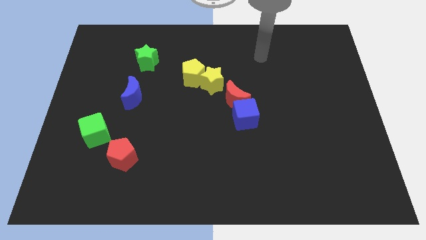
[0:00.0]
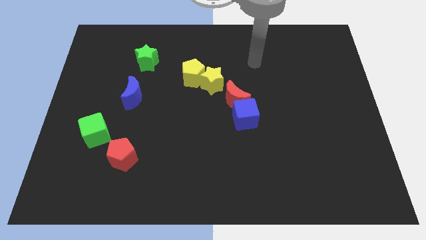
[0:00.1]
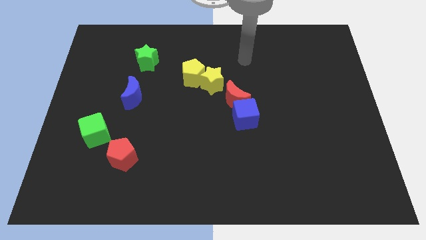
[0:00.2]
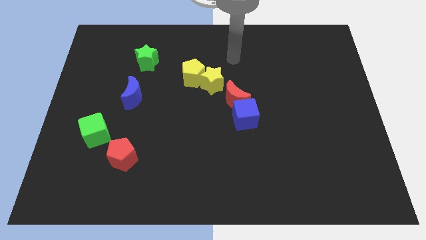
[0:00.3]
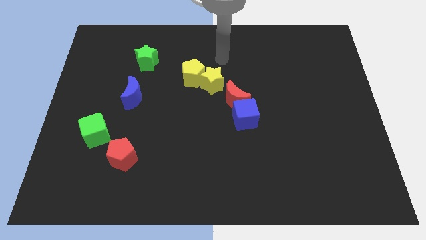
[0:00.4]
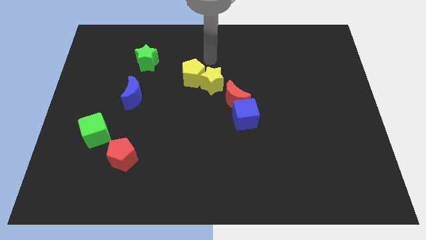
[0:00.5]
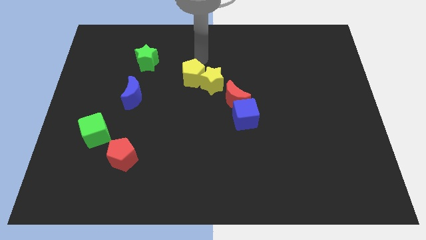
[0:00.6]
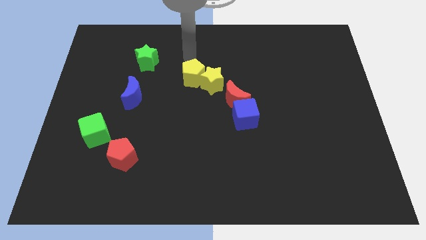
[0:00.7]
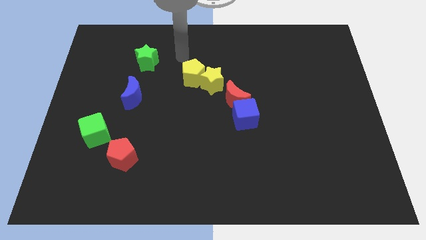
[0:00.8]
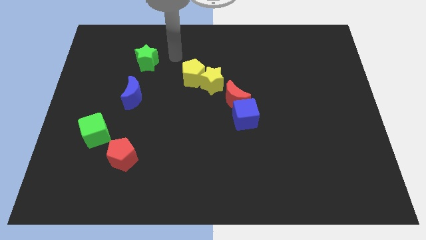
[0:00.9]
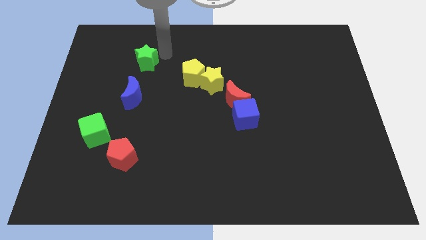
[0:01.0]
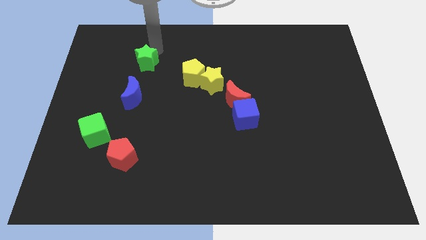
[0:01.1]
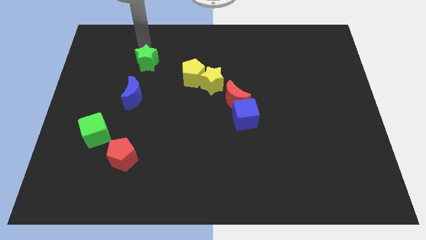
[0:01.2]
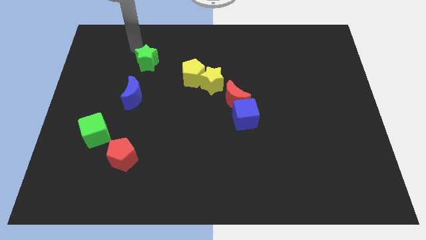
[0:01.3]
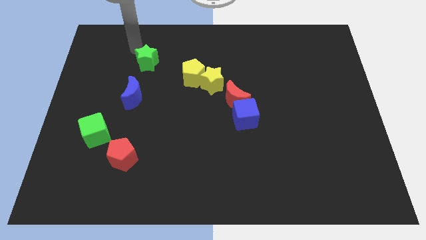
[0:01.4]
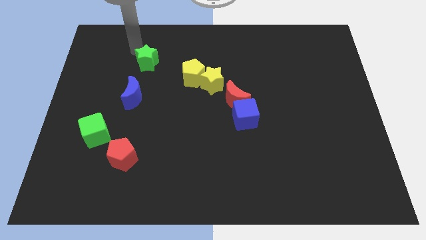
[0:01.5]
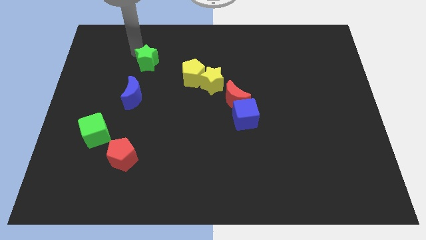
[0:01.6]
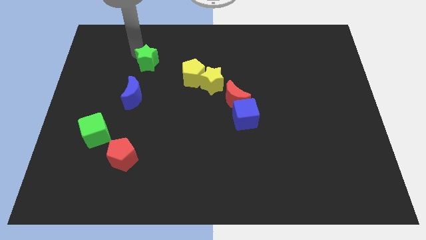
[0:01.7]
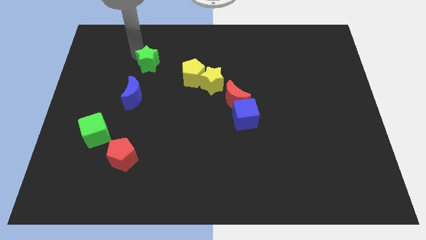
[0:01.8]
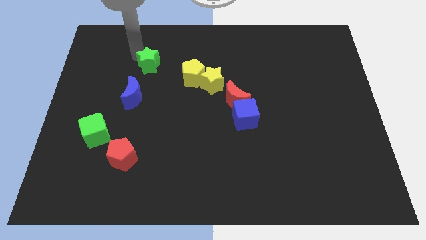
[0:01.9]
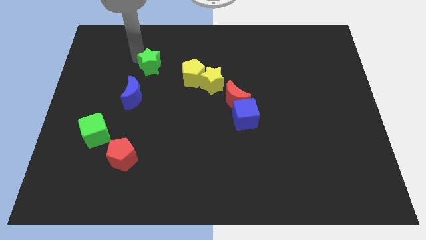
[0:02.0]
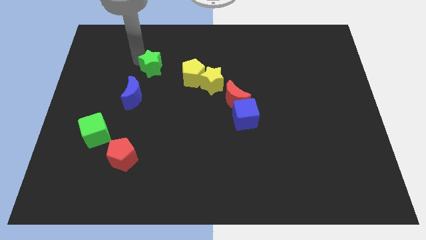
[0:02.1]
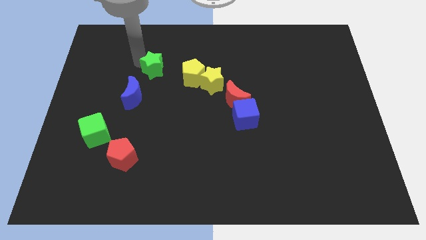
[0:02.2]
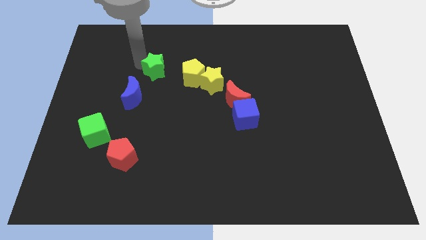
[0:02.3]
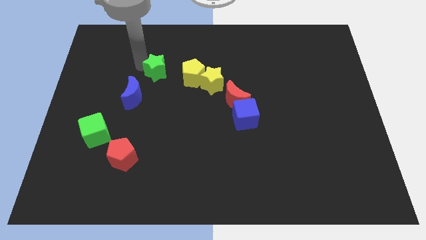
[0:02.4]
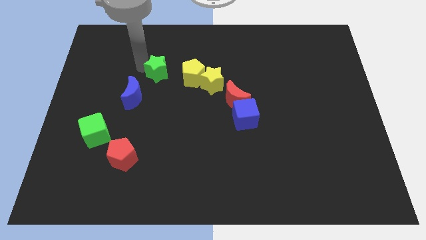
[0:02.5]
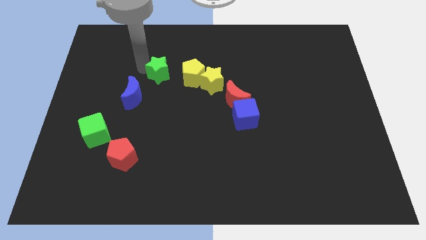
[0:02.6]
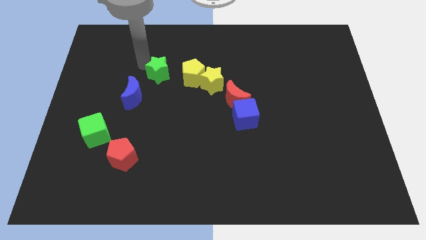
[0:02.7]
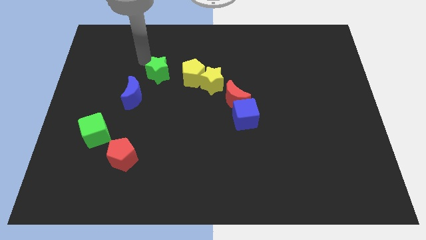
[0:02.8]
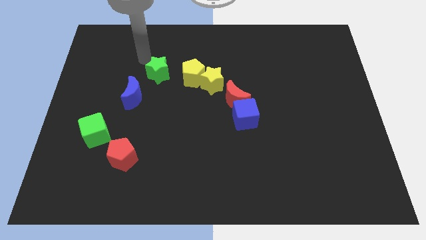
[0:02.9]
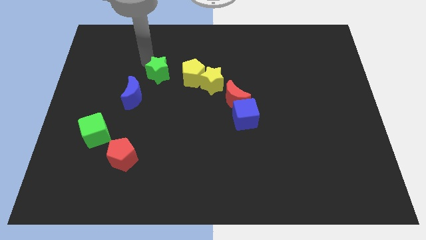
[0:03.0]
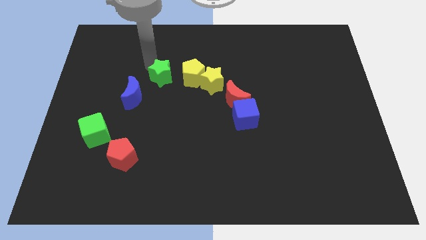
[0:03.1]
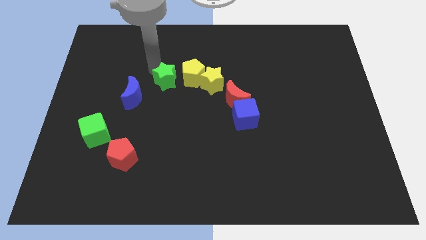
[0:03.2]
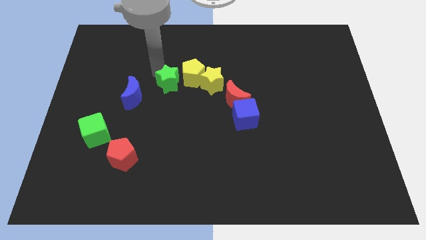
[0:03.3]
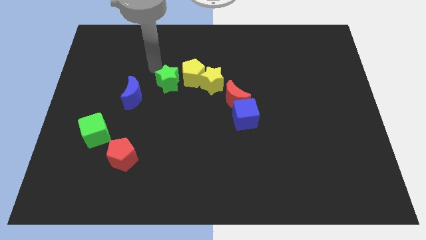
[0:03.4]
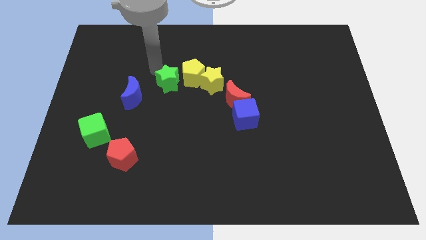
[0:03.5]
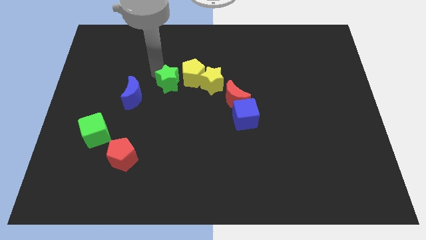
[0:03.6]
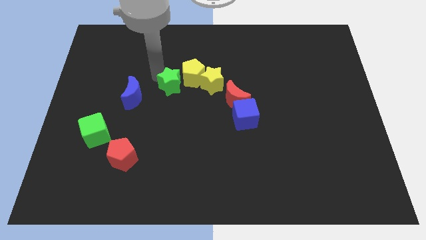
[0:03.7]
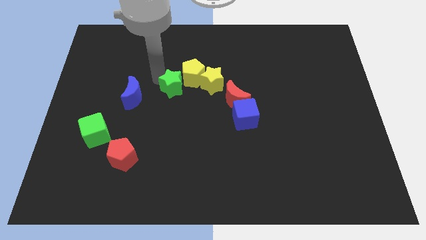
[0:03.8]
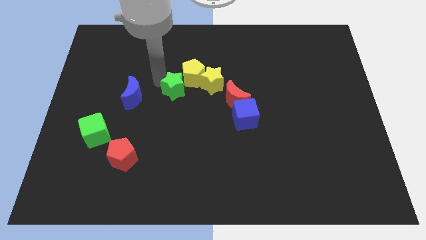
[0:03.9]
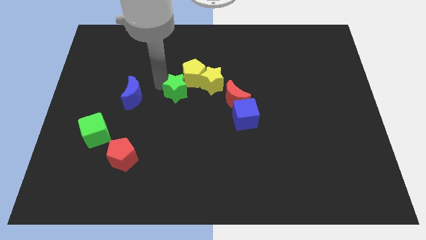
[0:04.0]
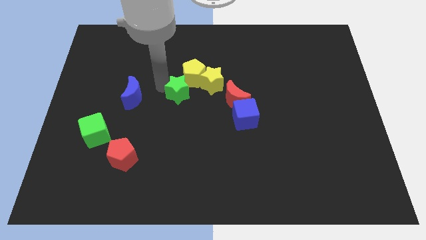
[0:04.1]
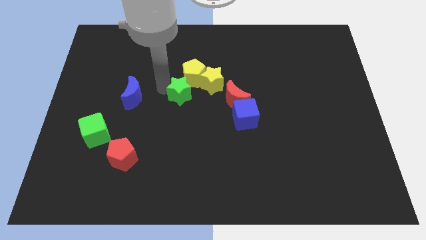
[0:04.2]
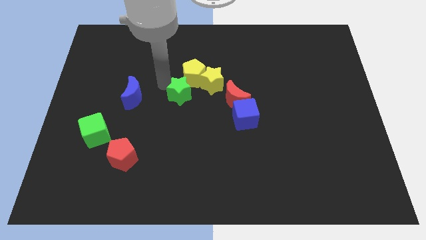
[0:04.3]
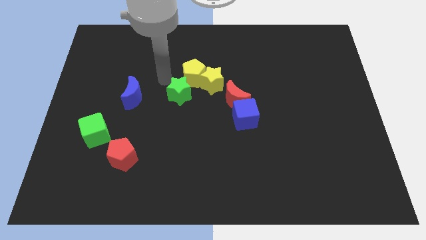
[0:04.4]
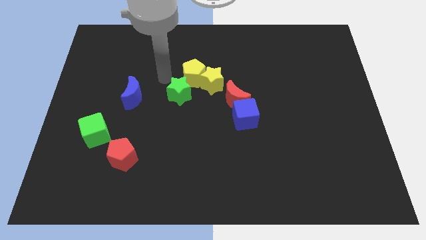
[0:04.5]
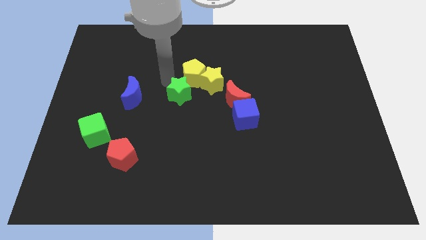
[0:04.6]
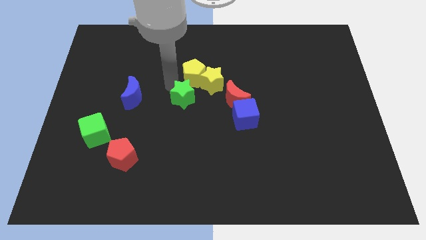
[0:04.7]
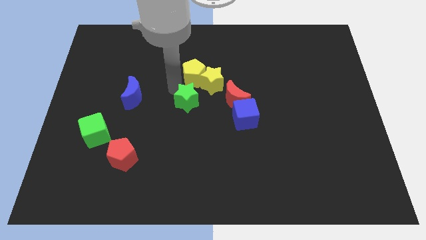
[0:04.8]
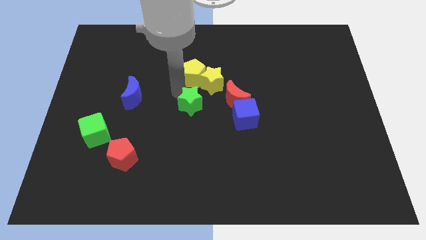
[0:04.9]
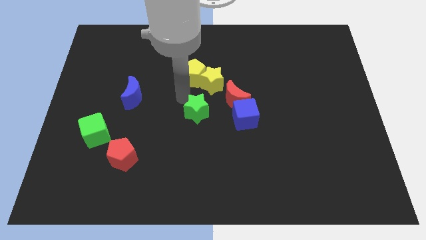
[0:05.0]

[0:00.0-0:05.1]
slide the green star downwards and to the right

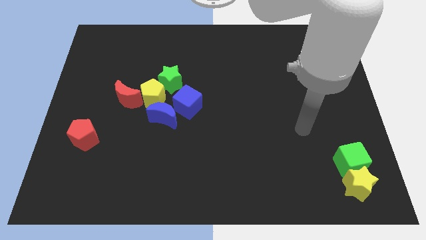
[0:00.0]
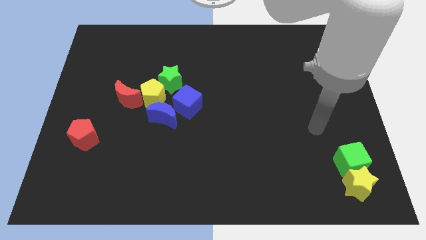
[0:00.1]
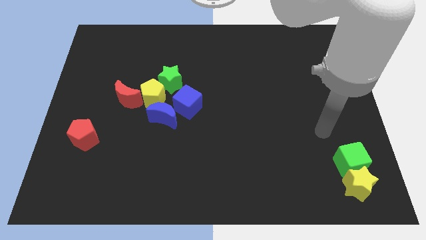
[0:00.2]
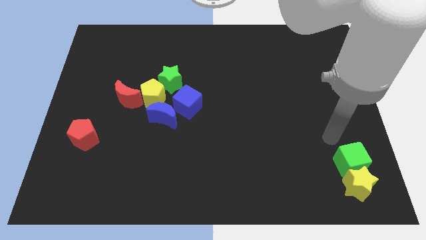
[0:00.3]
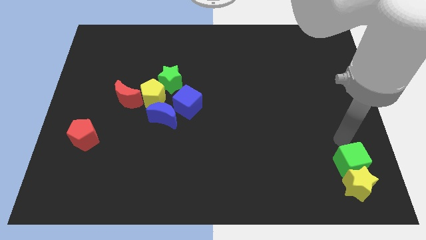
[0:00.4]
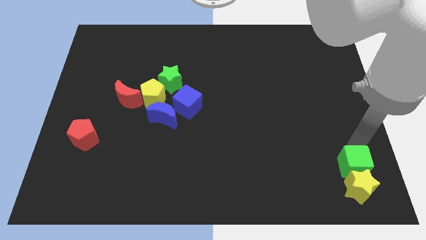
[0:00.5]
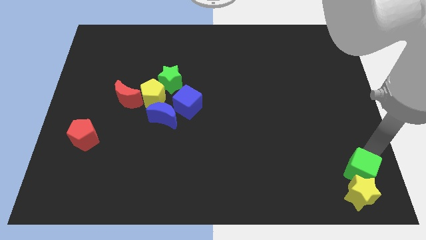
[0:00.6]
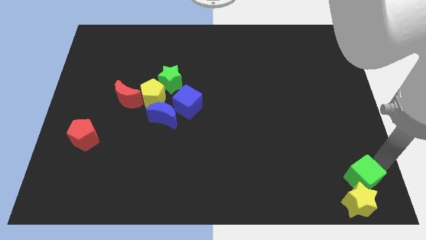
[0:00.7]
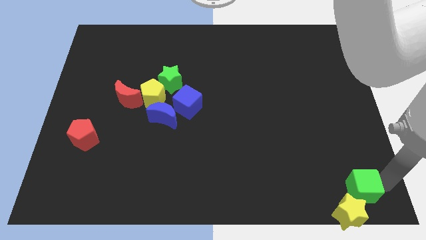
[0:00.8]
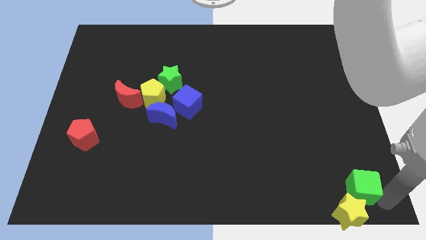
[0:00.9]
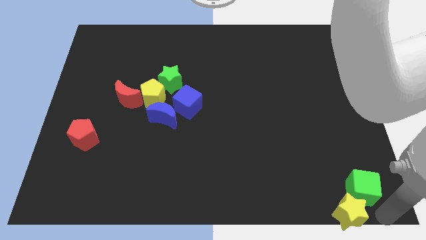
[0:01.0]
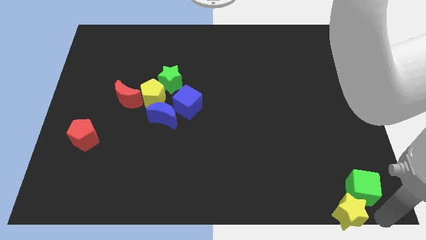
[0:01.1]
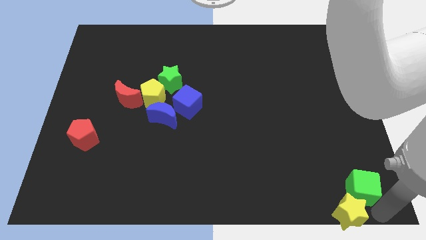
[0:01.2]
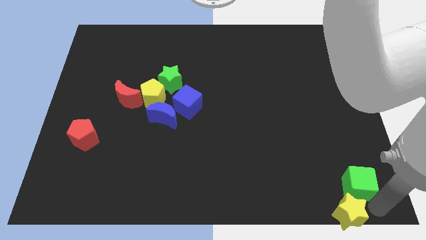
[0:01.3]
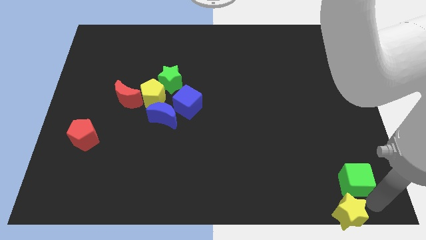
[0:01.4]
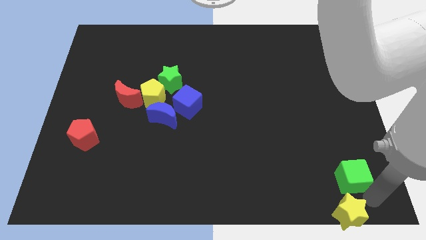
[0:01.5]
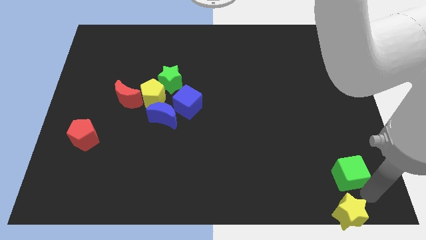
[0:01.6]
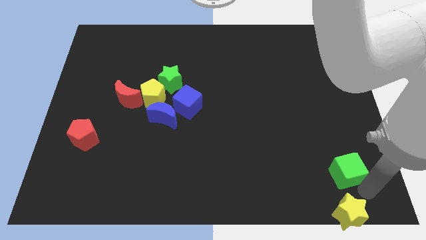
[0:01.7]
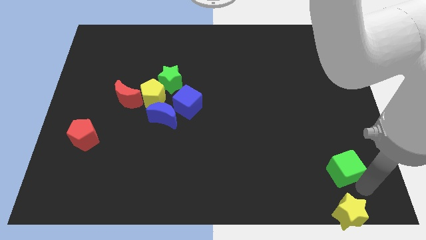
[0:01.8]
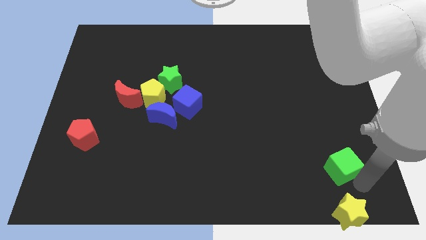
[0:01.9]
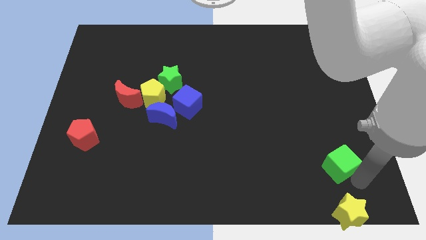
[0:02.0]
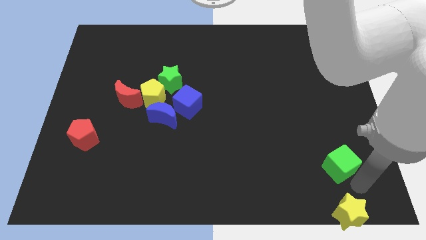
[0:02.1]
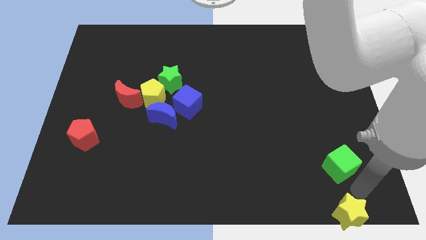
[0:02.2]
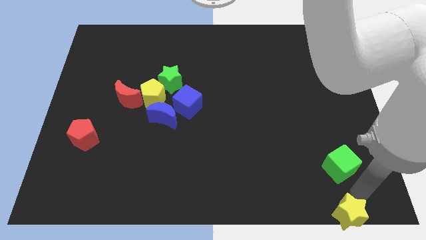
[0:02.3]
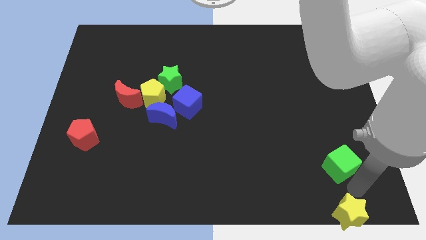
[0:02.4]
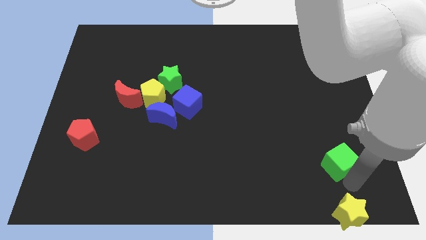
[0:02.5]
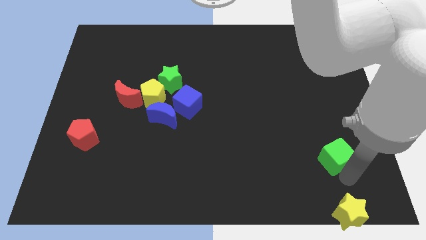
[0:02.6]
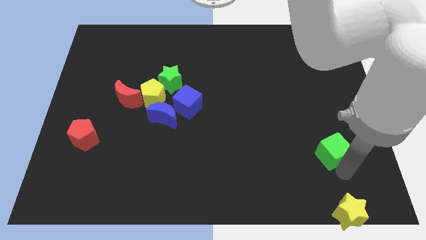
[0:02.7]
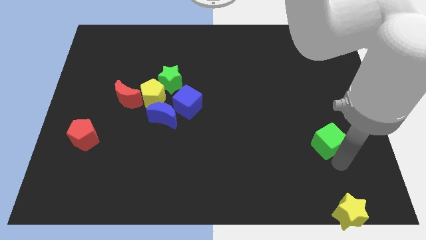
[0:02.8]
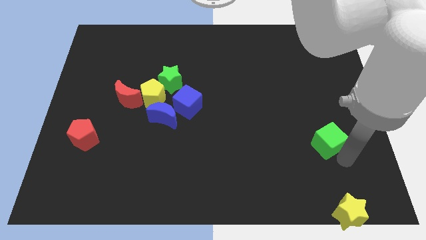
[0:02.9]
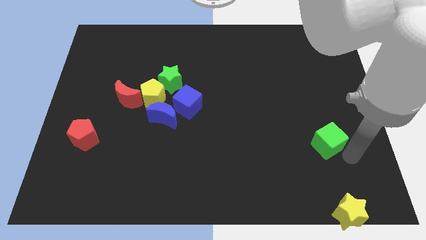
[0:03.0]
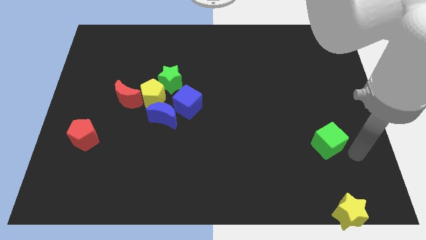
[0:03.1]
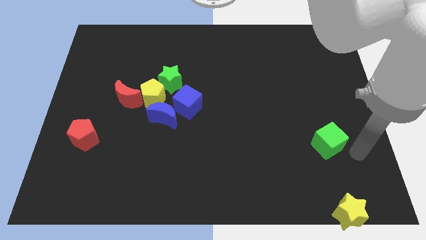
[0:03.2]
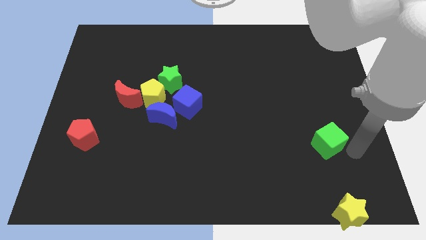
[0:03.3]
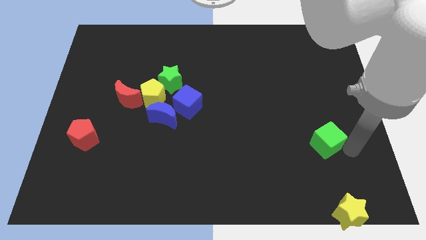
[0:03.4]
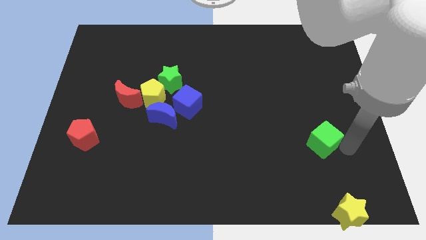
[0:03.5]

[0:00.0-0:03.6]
move the green cube a little upwards and left
